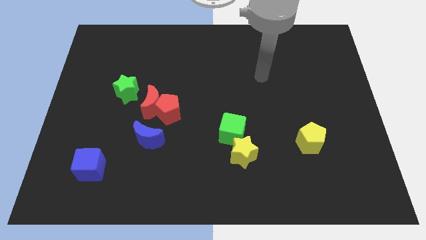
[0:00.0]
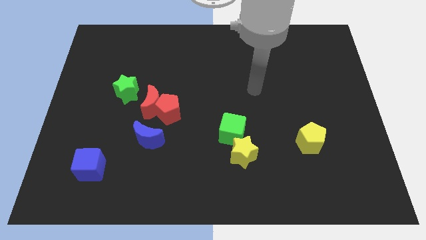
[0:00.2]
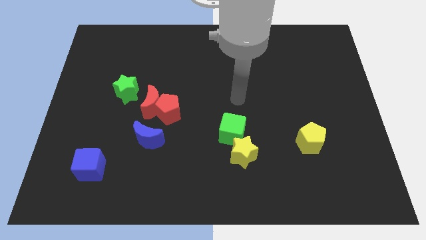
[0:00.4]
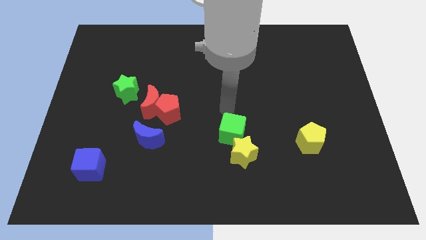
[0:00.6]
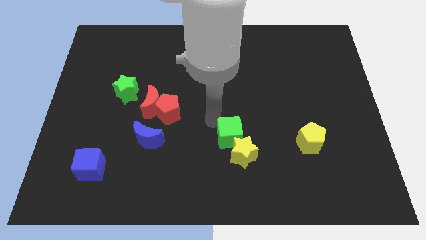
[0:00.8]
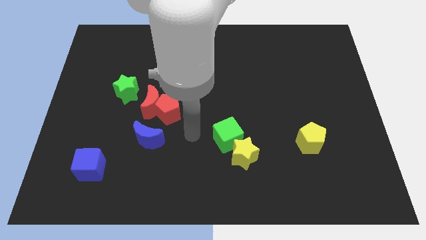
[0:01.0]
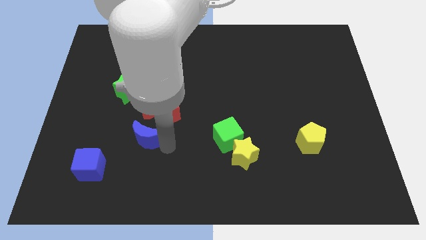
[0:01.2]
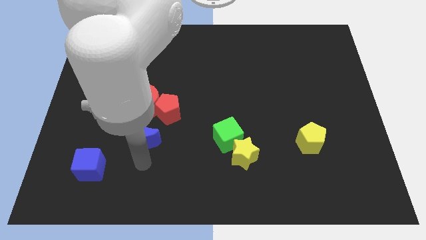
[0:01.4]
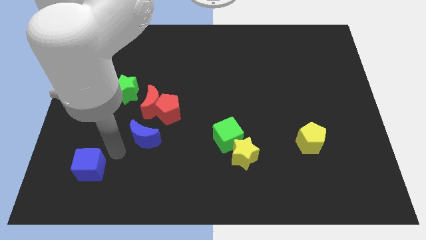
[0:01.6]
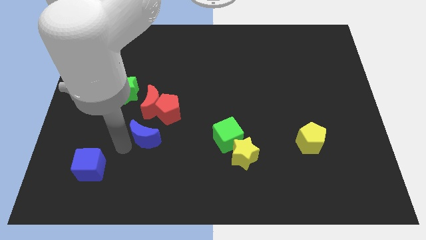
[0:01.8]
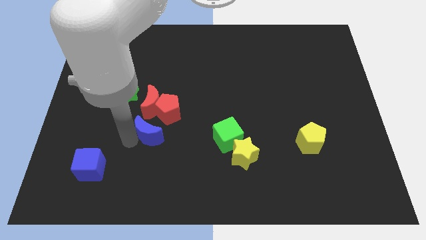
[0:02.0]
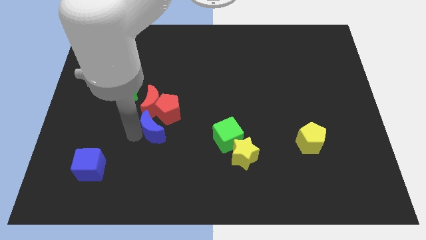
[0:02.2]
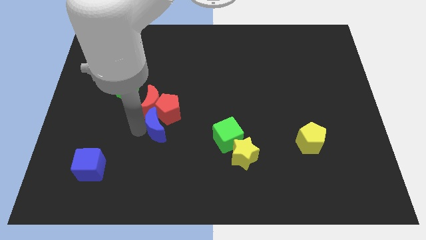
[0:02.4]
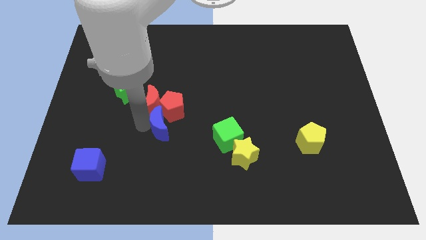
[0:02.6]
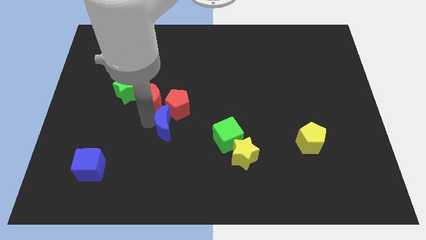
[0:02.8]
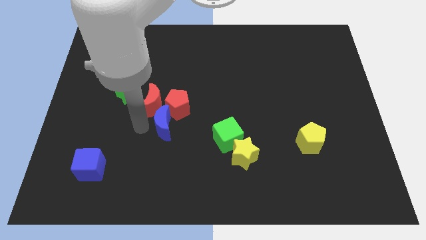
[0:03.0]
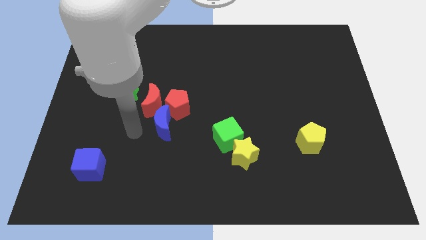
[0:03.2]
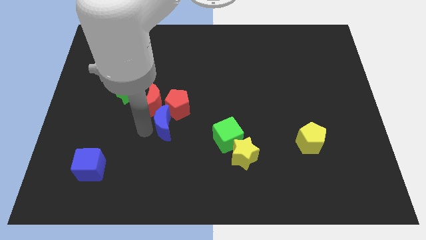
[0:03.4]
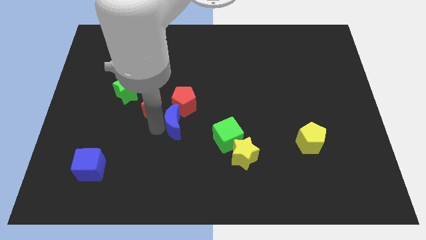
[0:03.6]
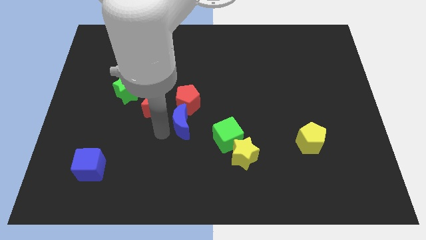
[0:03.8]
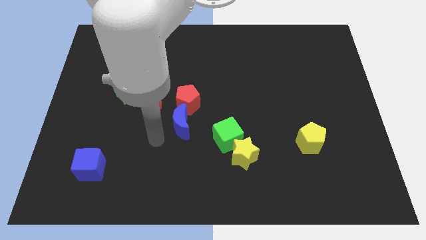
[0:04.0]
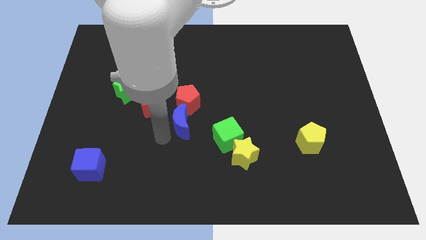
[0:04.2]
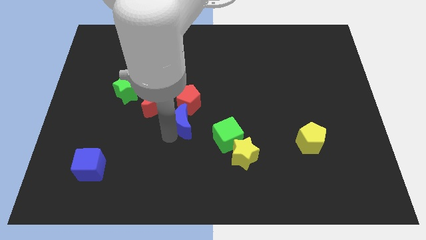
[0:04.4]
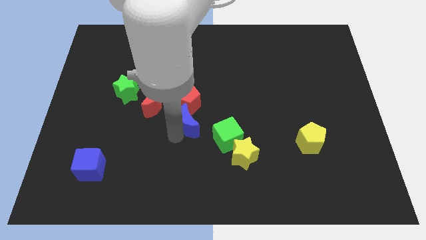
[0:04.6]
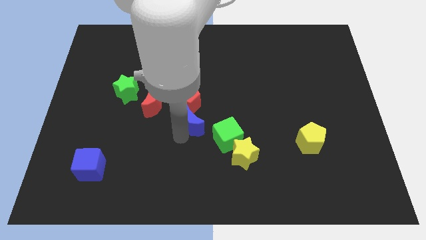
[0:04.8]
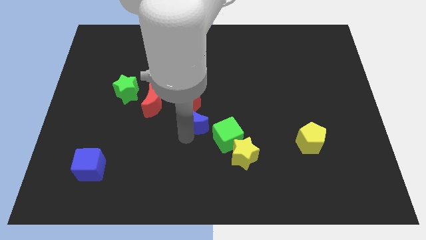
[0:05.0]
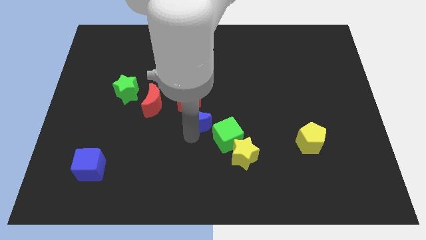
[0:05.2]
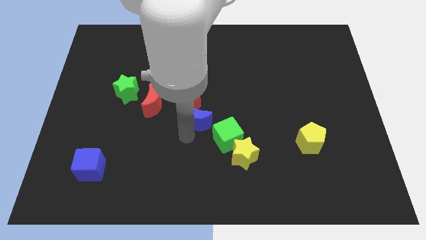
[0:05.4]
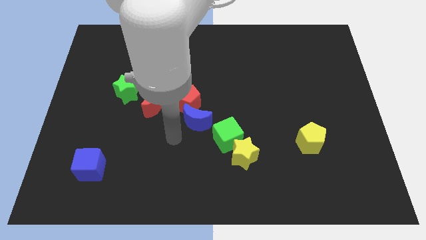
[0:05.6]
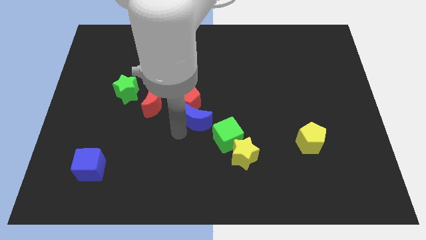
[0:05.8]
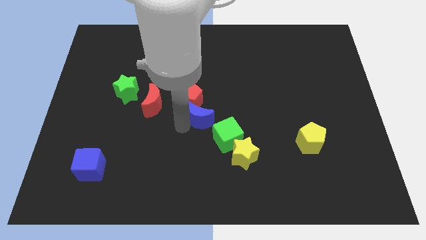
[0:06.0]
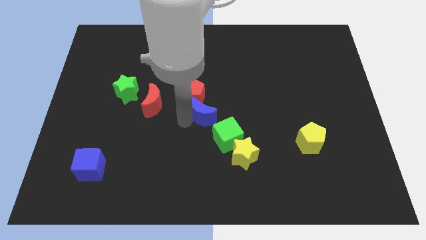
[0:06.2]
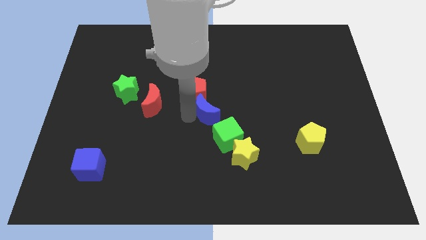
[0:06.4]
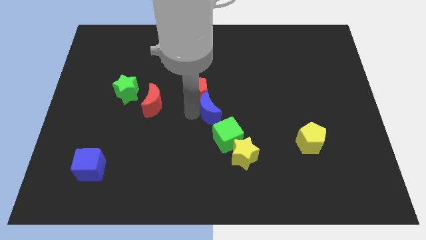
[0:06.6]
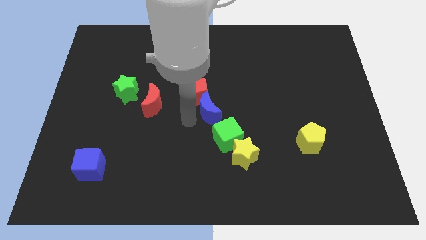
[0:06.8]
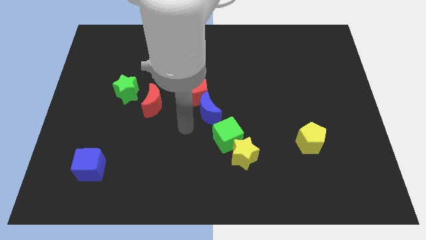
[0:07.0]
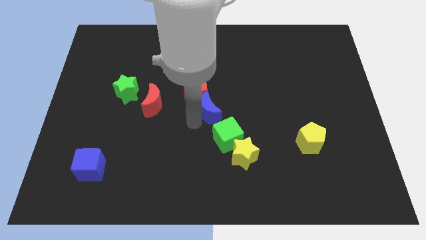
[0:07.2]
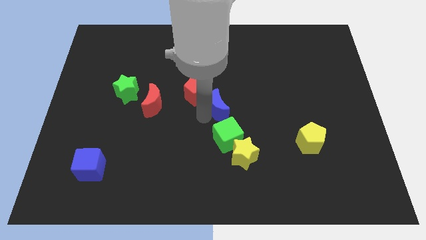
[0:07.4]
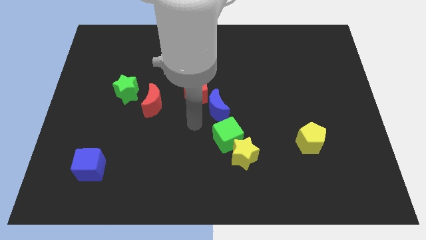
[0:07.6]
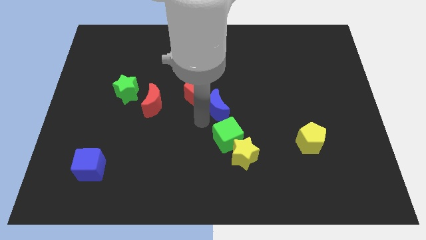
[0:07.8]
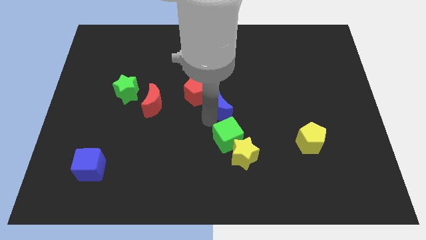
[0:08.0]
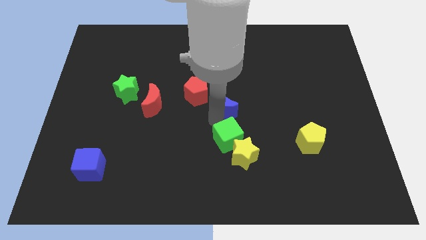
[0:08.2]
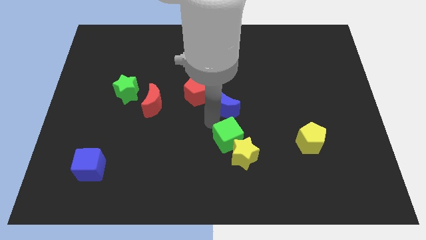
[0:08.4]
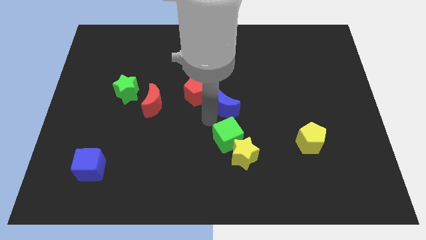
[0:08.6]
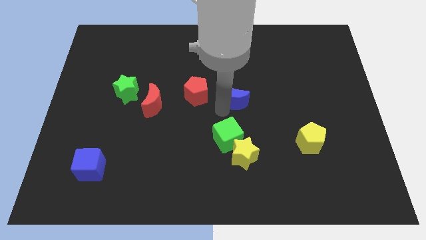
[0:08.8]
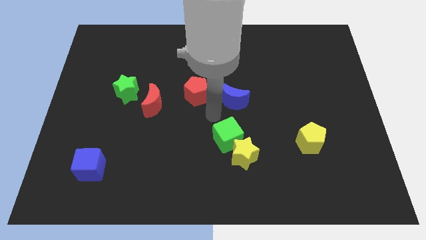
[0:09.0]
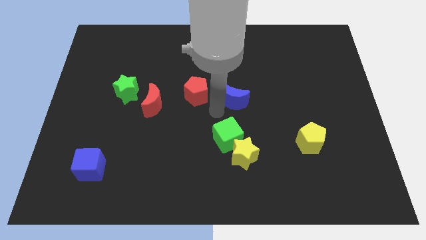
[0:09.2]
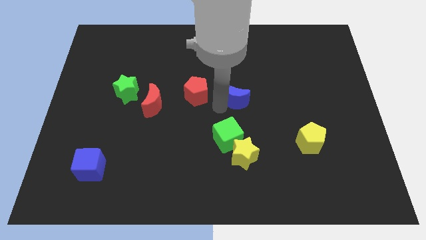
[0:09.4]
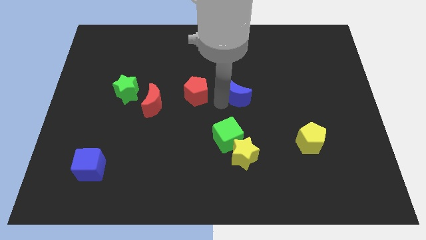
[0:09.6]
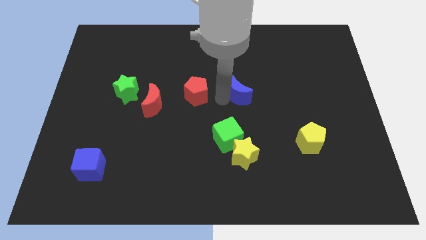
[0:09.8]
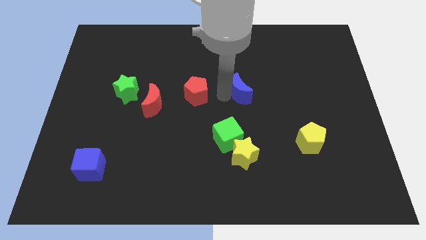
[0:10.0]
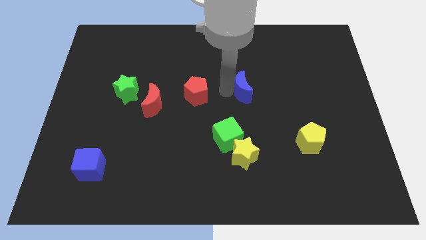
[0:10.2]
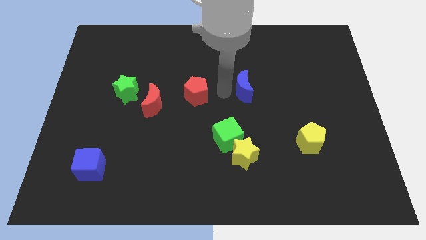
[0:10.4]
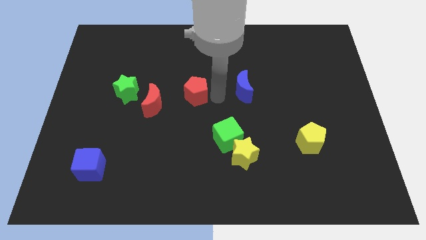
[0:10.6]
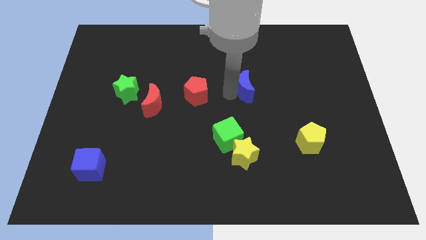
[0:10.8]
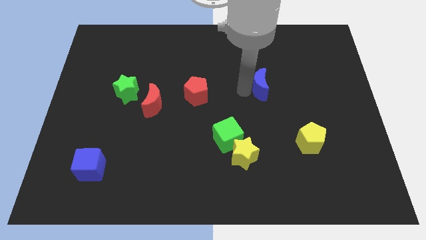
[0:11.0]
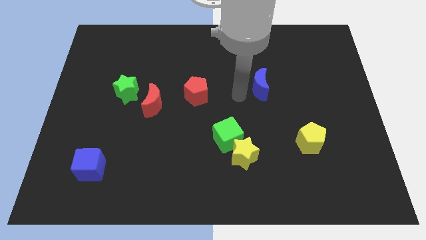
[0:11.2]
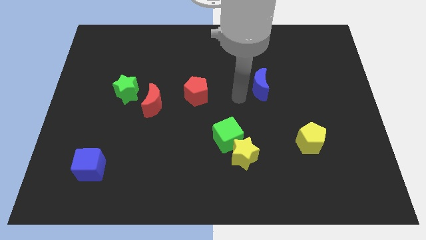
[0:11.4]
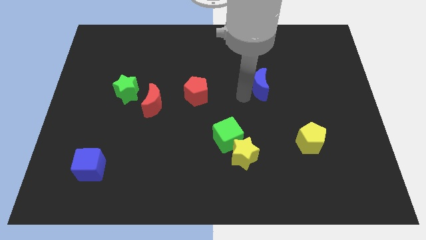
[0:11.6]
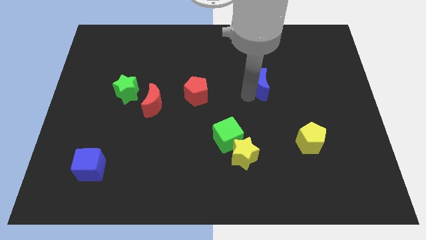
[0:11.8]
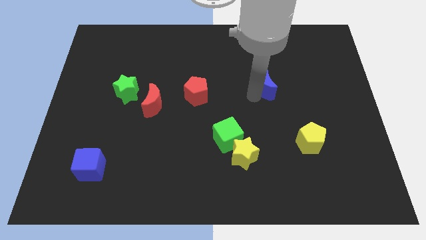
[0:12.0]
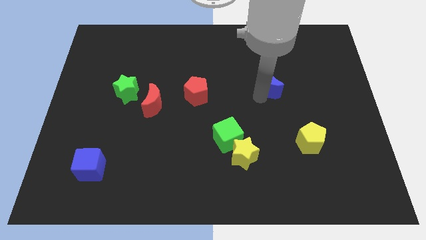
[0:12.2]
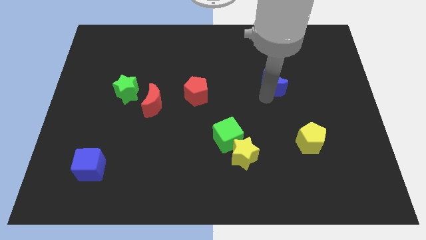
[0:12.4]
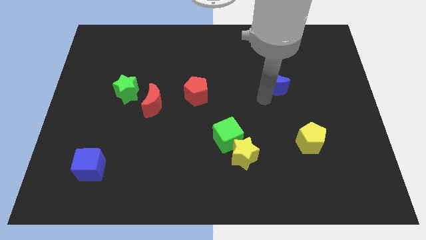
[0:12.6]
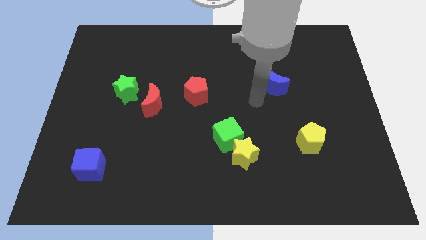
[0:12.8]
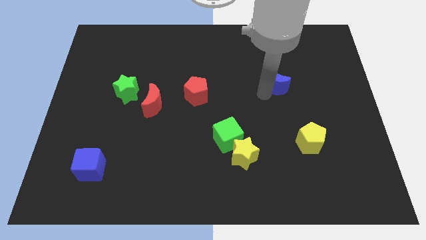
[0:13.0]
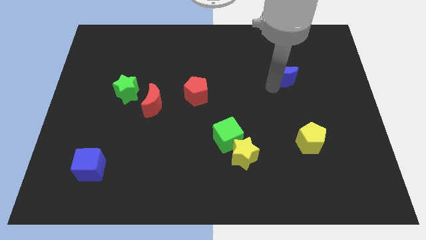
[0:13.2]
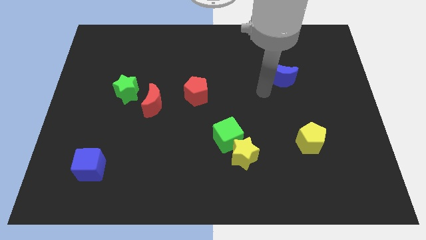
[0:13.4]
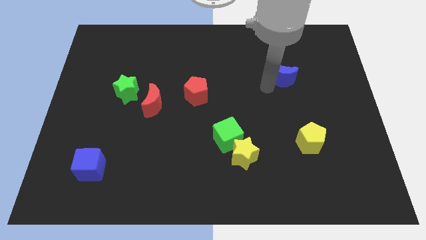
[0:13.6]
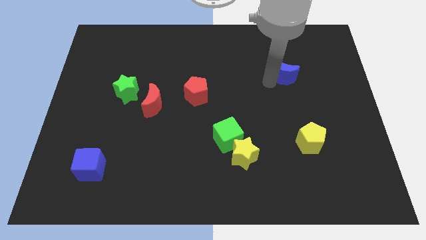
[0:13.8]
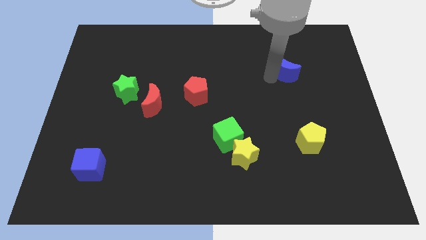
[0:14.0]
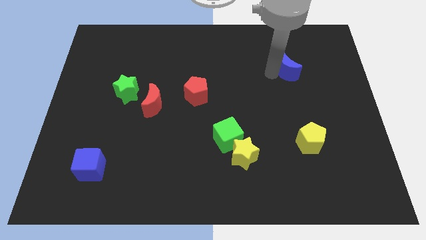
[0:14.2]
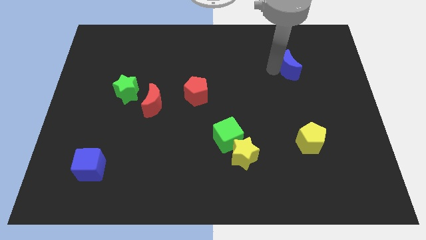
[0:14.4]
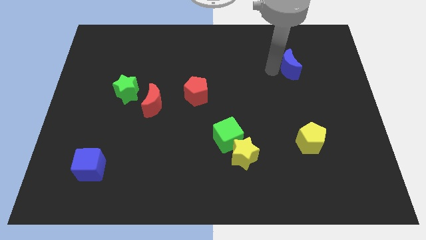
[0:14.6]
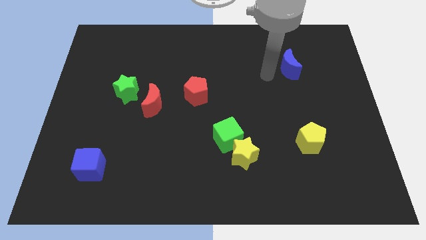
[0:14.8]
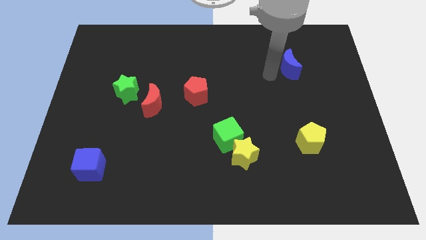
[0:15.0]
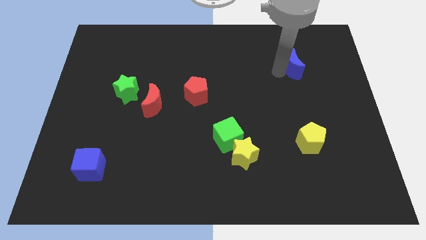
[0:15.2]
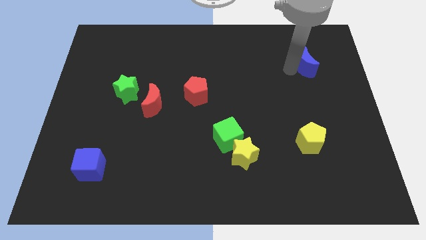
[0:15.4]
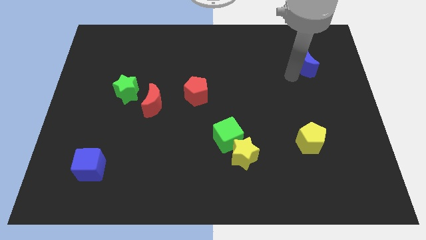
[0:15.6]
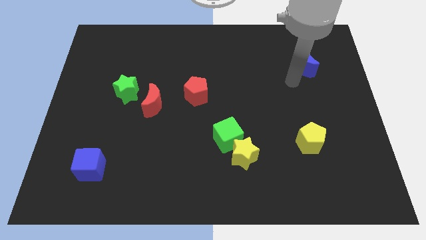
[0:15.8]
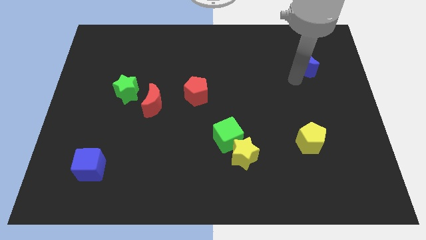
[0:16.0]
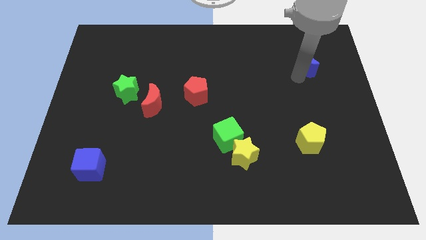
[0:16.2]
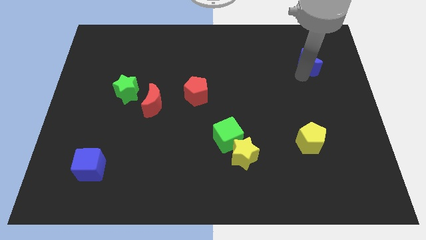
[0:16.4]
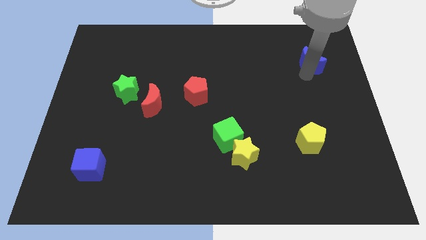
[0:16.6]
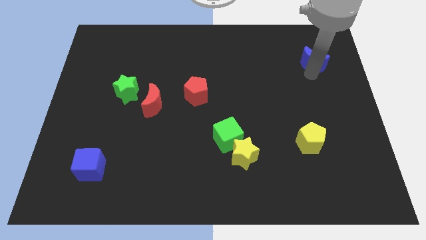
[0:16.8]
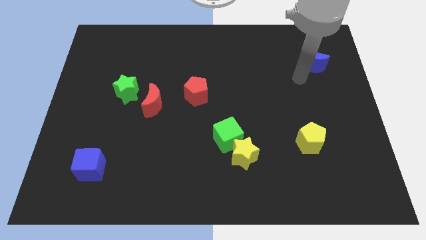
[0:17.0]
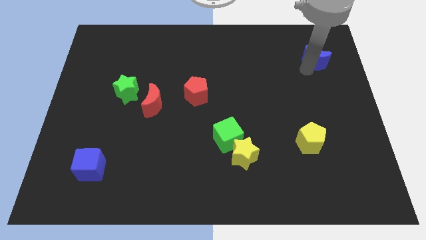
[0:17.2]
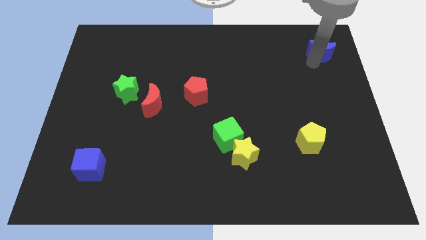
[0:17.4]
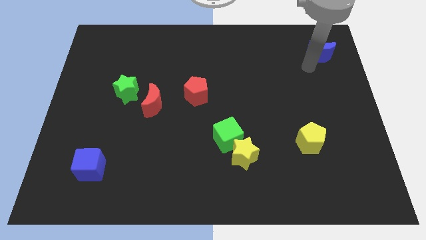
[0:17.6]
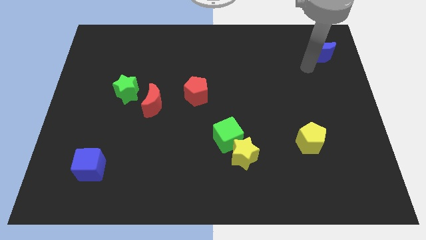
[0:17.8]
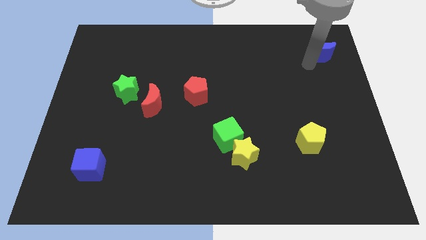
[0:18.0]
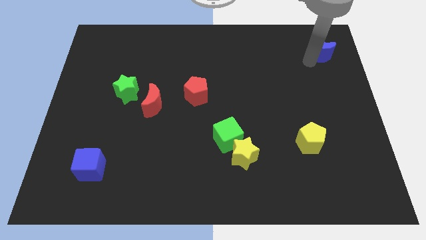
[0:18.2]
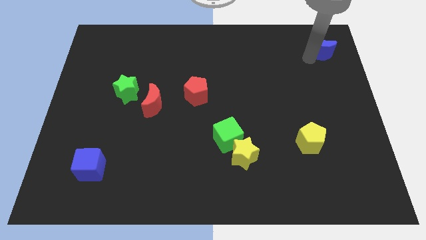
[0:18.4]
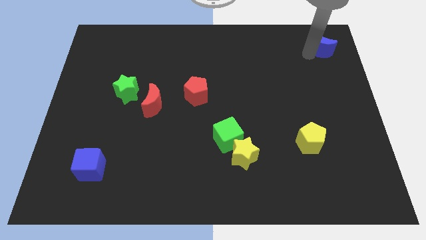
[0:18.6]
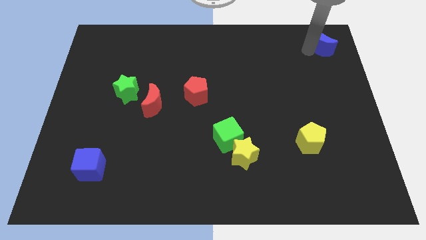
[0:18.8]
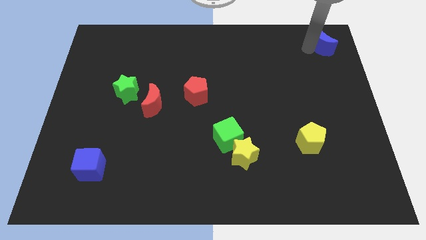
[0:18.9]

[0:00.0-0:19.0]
slide the blue moon to the top right of the board
